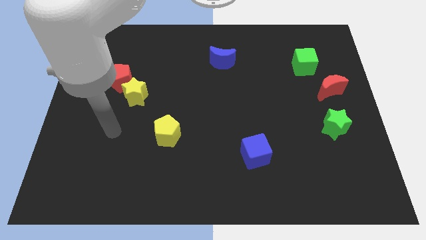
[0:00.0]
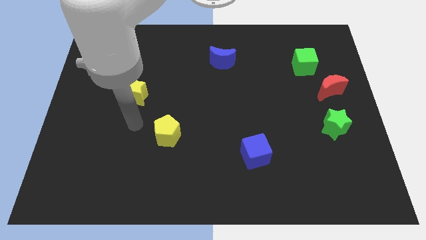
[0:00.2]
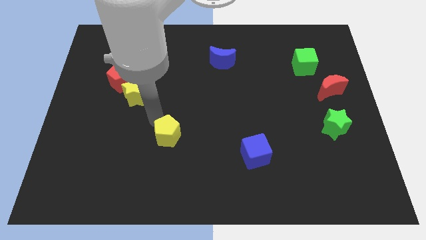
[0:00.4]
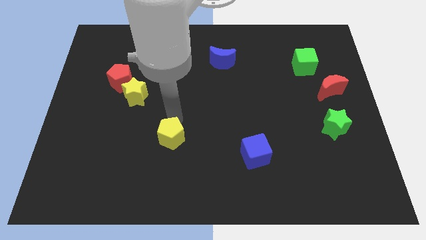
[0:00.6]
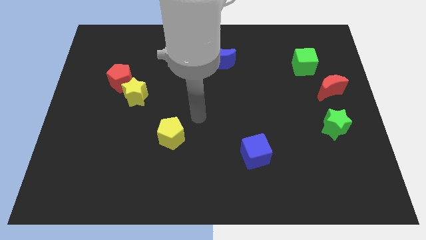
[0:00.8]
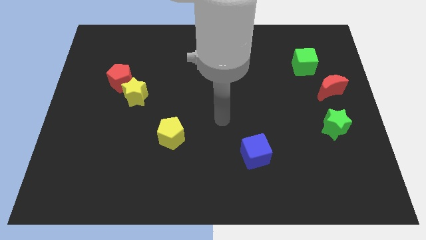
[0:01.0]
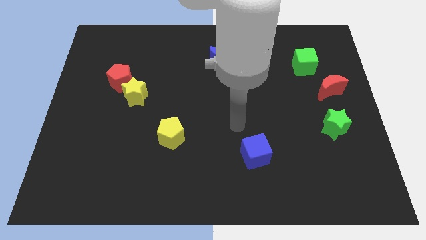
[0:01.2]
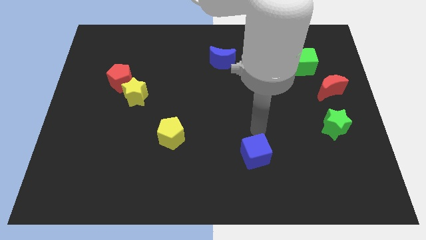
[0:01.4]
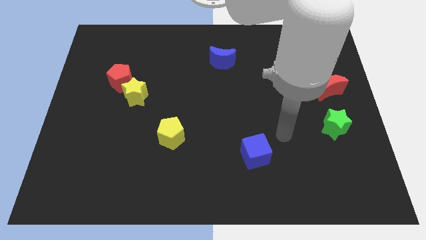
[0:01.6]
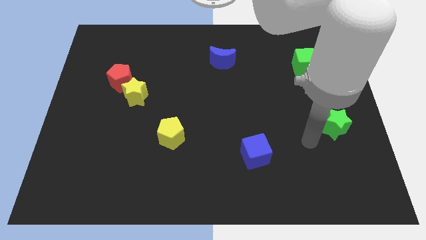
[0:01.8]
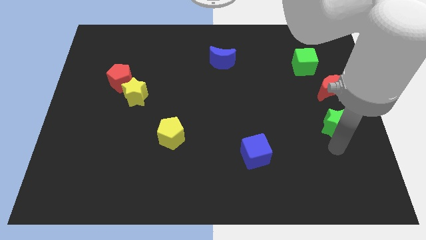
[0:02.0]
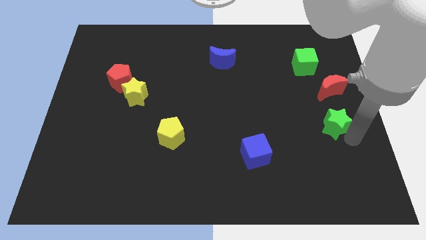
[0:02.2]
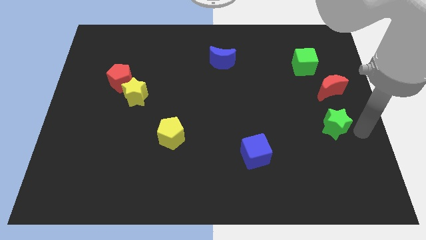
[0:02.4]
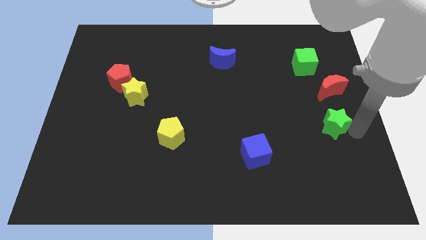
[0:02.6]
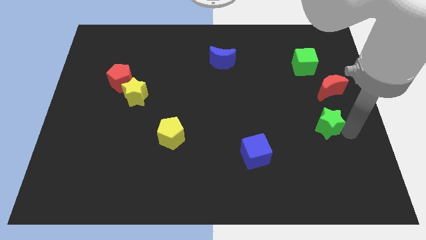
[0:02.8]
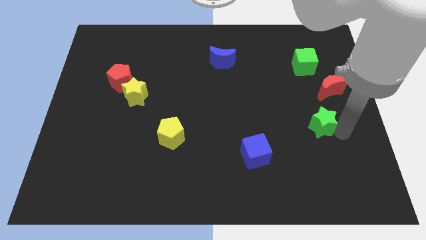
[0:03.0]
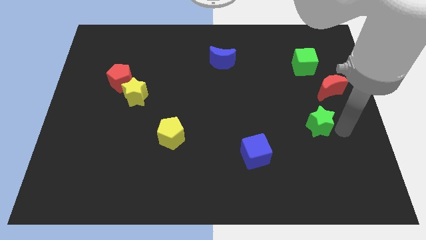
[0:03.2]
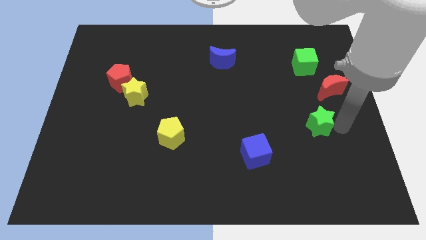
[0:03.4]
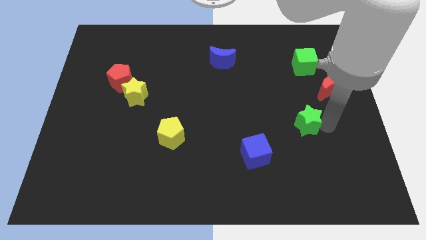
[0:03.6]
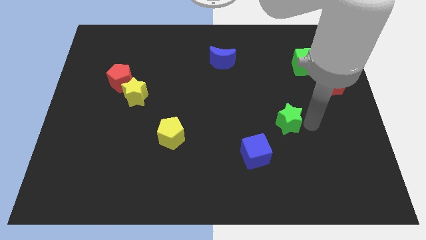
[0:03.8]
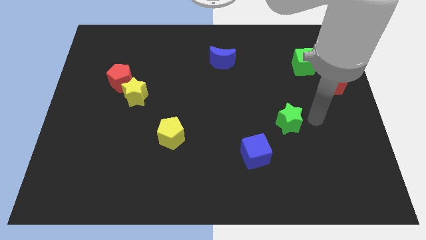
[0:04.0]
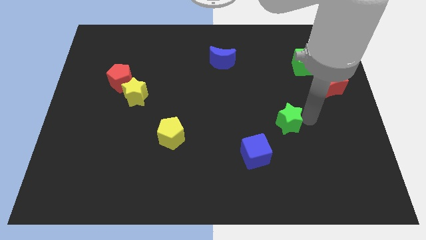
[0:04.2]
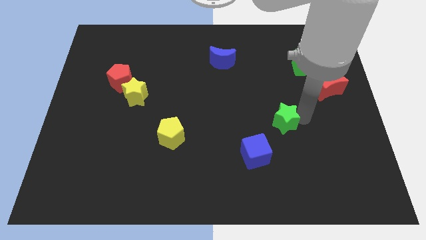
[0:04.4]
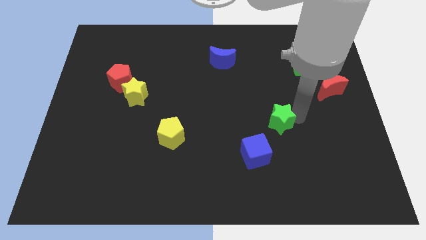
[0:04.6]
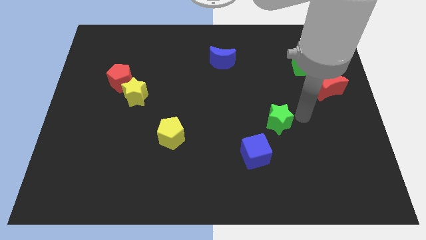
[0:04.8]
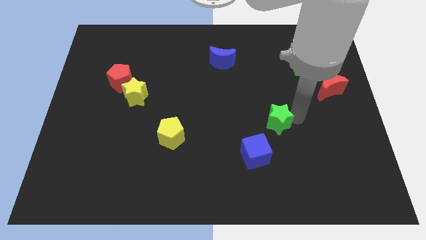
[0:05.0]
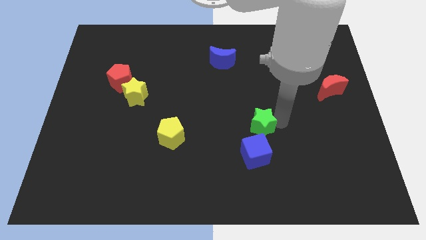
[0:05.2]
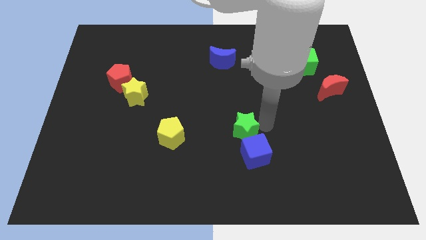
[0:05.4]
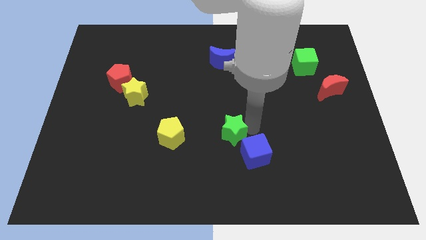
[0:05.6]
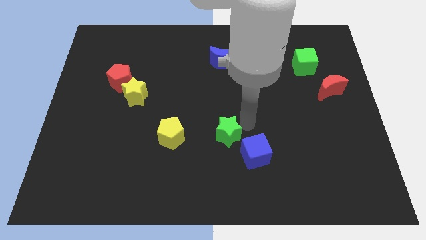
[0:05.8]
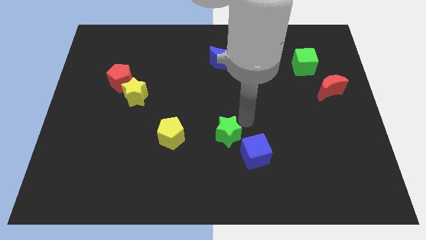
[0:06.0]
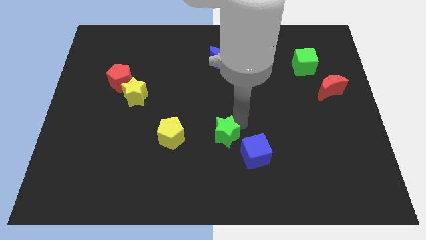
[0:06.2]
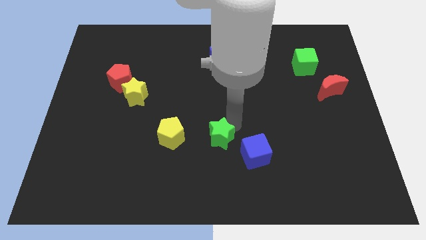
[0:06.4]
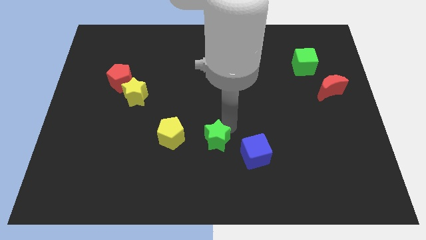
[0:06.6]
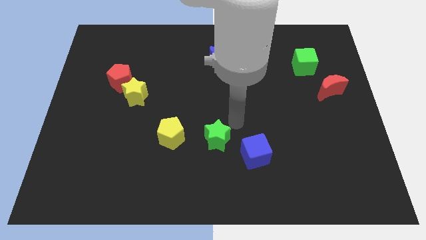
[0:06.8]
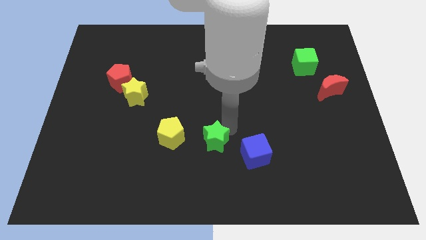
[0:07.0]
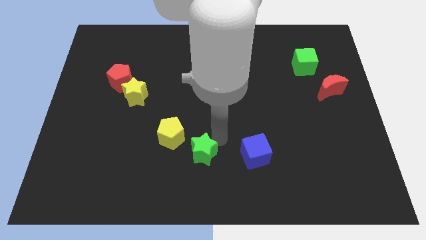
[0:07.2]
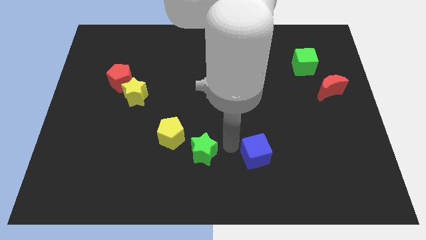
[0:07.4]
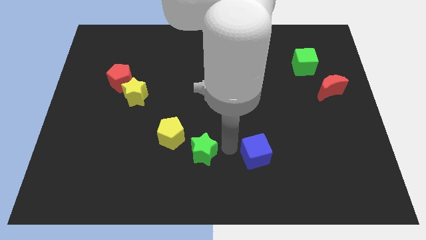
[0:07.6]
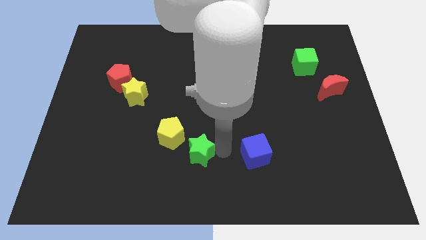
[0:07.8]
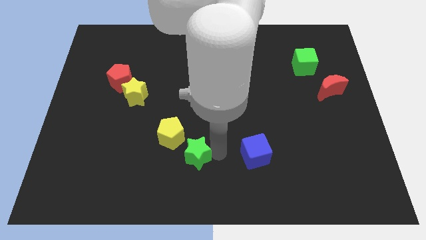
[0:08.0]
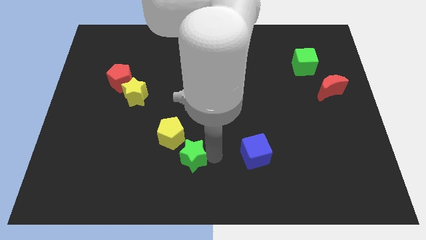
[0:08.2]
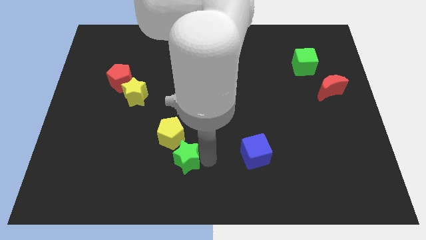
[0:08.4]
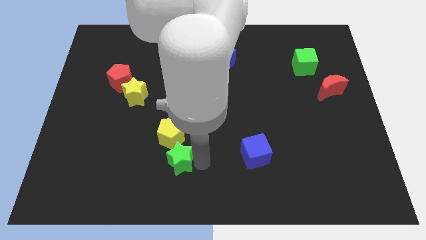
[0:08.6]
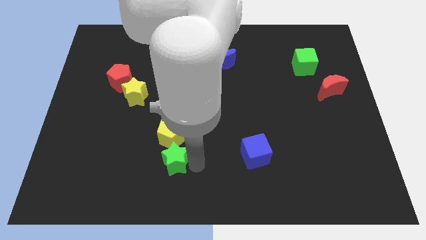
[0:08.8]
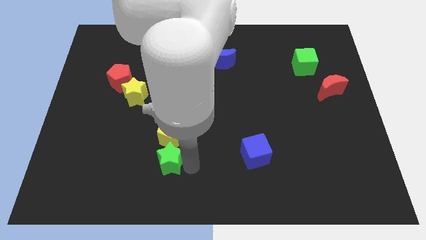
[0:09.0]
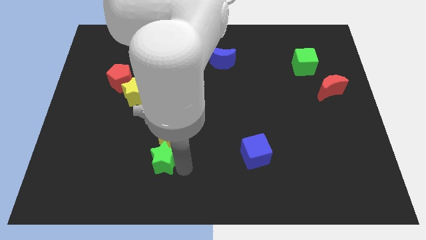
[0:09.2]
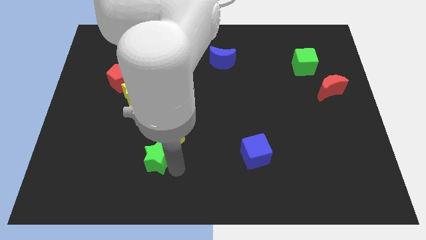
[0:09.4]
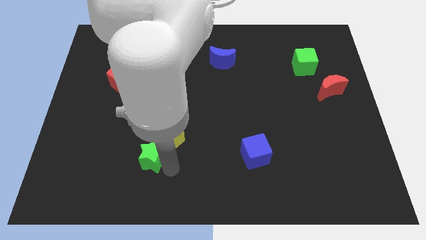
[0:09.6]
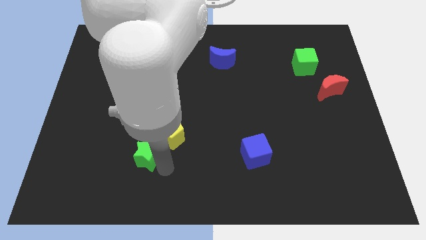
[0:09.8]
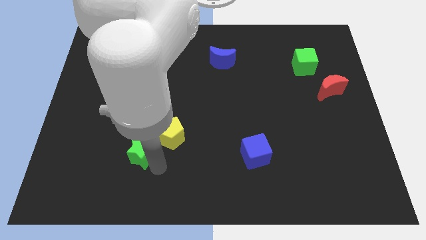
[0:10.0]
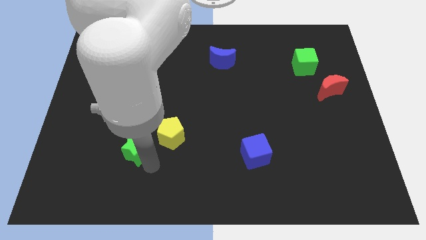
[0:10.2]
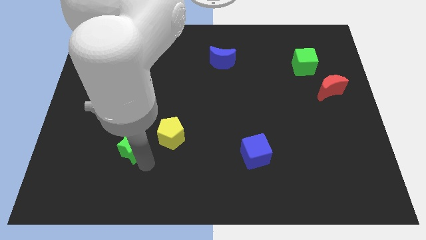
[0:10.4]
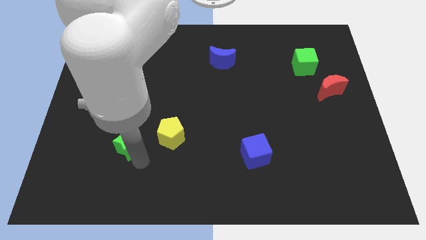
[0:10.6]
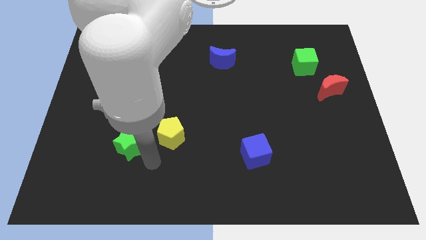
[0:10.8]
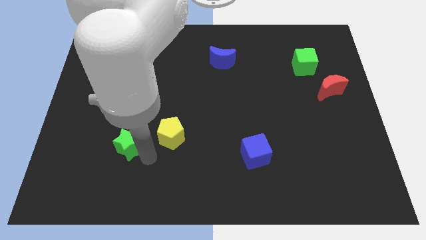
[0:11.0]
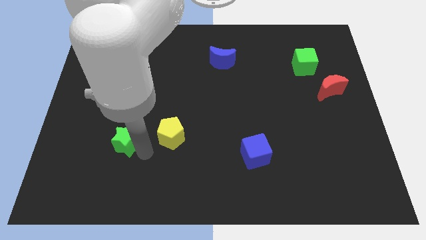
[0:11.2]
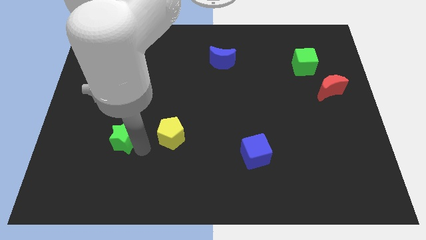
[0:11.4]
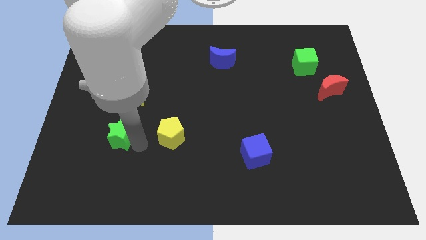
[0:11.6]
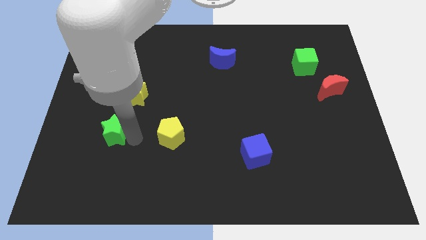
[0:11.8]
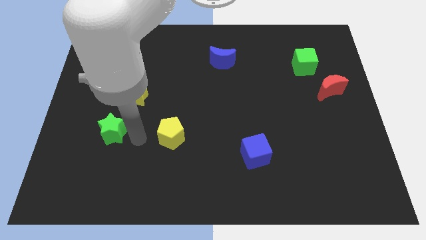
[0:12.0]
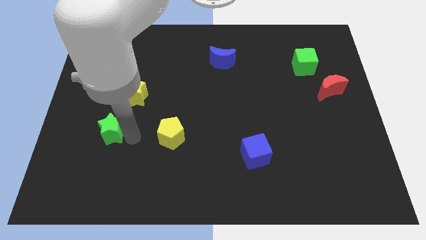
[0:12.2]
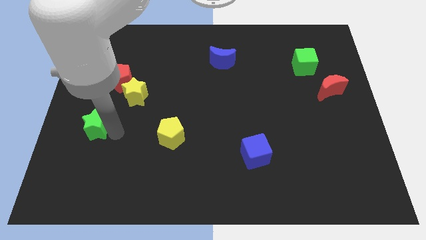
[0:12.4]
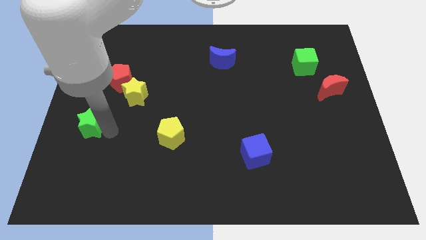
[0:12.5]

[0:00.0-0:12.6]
put the green star to the left side of the board

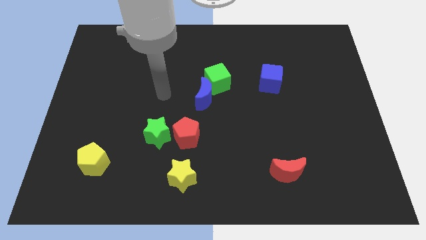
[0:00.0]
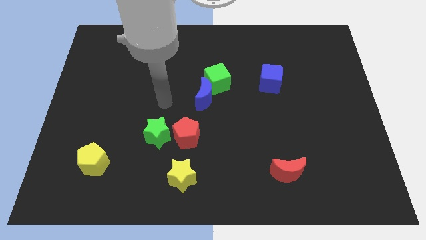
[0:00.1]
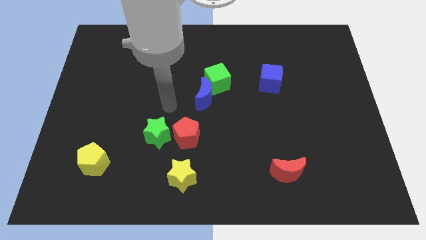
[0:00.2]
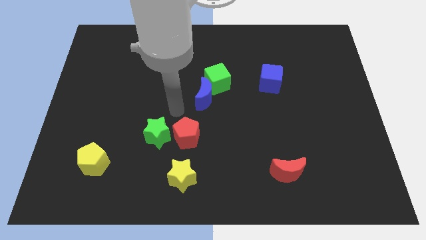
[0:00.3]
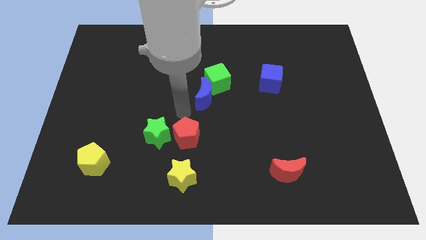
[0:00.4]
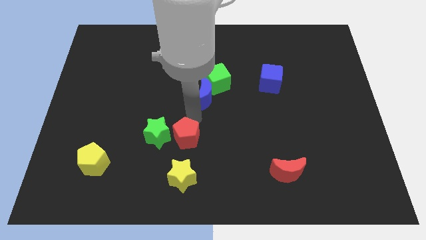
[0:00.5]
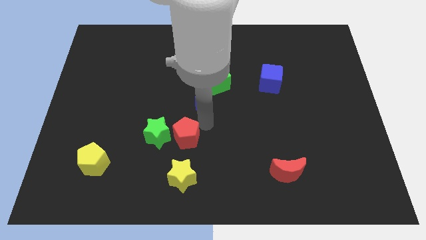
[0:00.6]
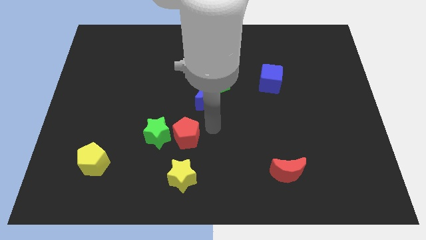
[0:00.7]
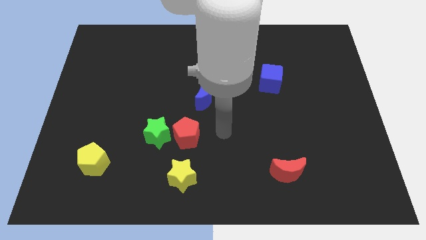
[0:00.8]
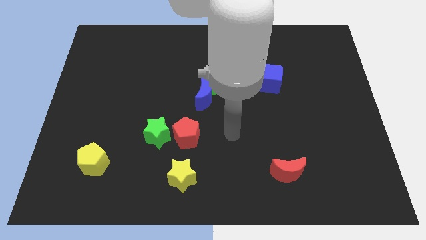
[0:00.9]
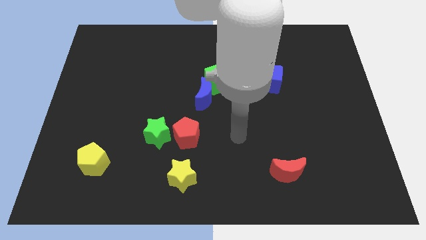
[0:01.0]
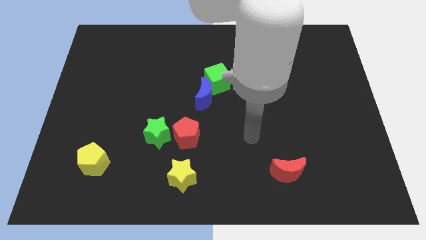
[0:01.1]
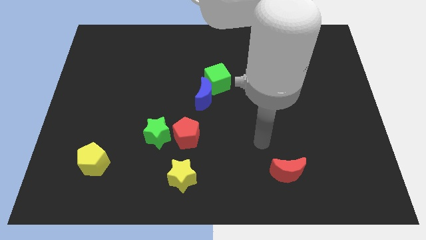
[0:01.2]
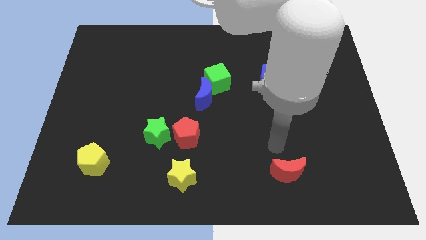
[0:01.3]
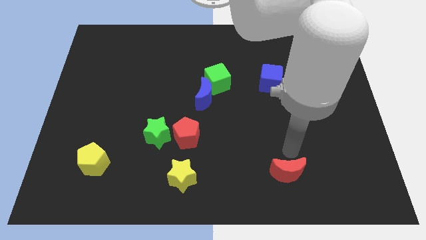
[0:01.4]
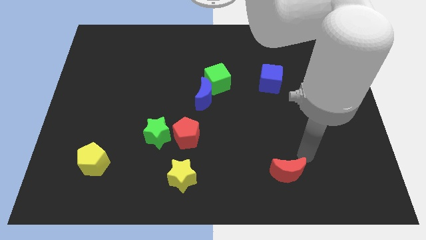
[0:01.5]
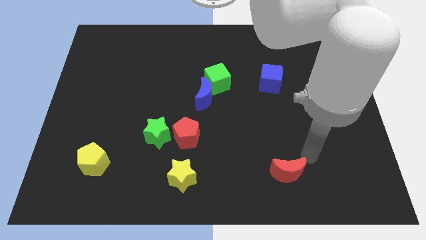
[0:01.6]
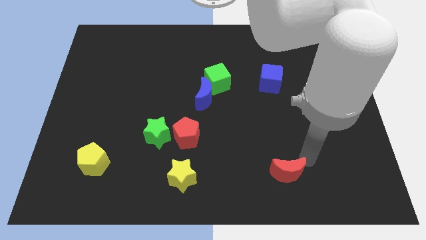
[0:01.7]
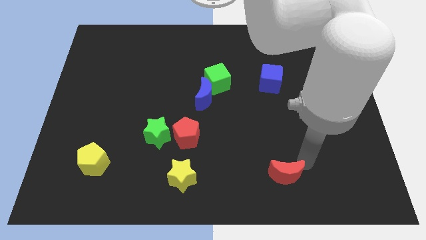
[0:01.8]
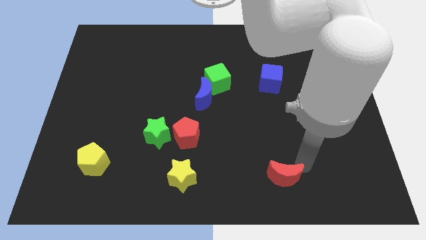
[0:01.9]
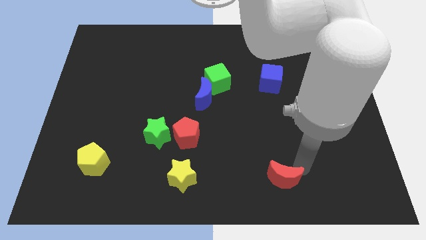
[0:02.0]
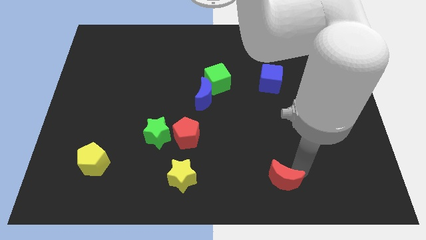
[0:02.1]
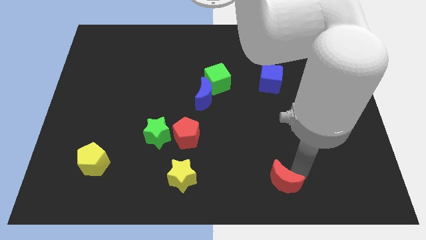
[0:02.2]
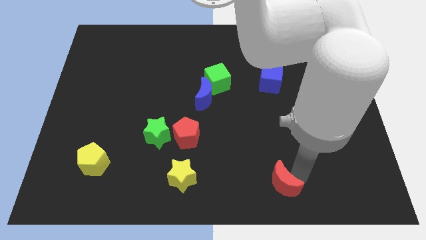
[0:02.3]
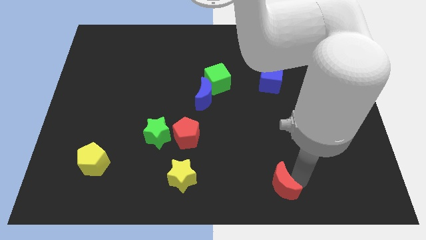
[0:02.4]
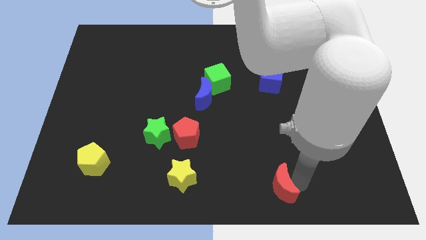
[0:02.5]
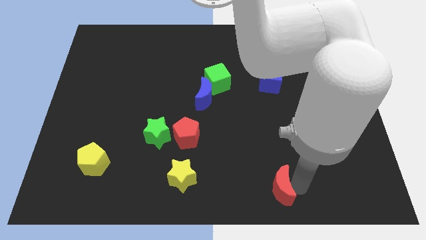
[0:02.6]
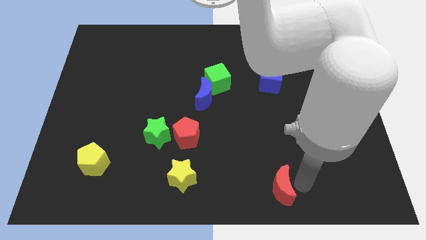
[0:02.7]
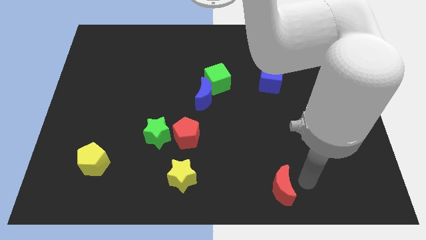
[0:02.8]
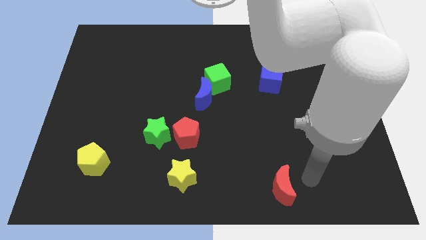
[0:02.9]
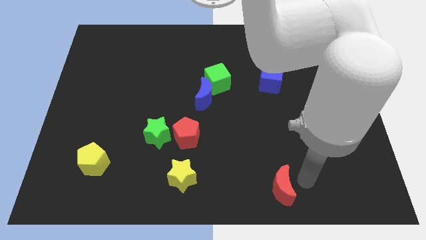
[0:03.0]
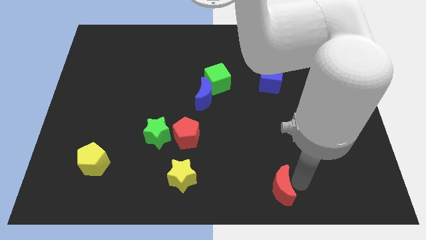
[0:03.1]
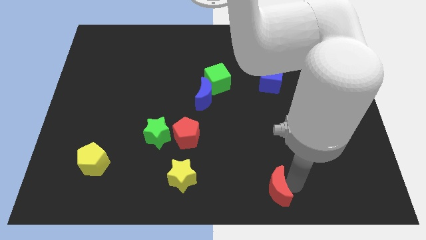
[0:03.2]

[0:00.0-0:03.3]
put the red moon to the bottom
